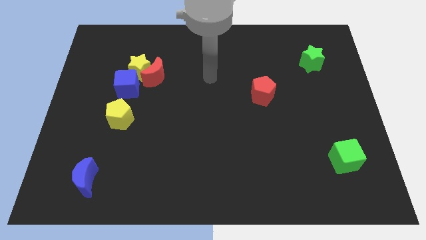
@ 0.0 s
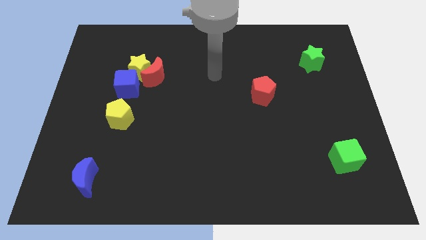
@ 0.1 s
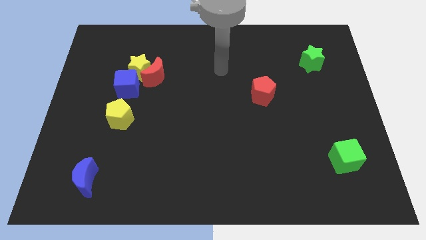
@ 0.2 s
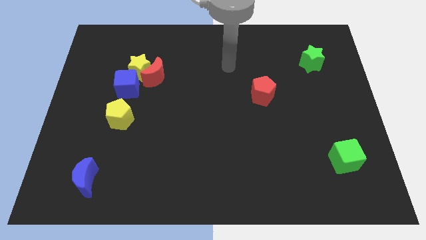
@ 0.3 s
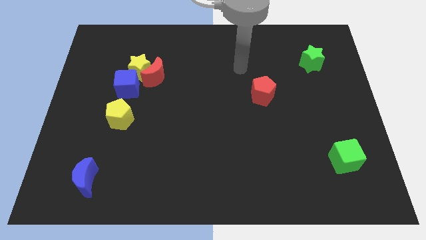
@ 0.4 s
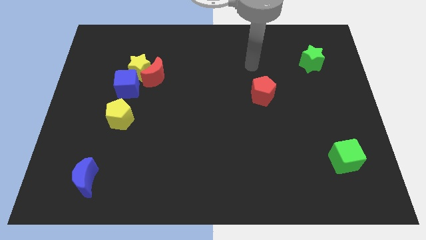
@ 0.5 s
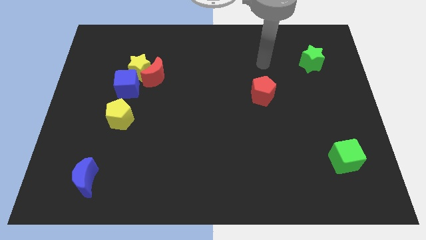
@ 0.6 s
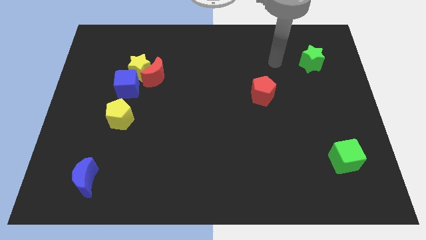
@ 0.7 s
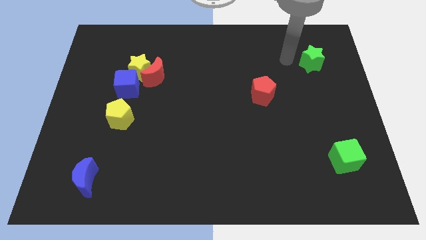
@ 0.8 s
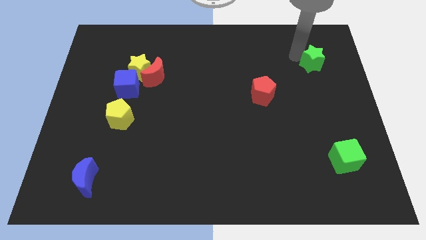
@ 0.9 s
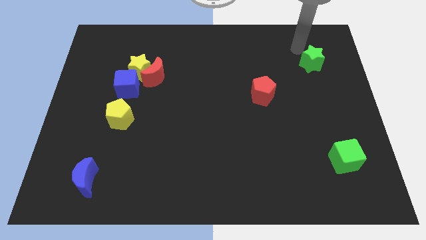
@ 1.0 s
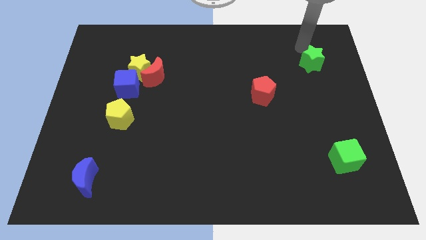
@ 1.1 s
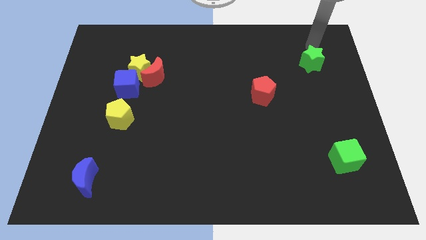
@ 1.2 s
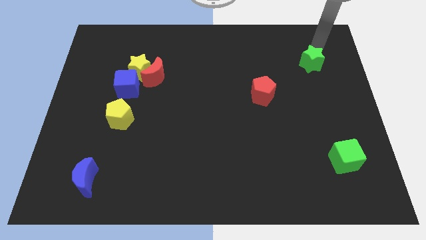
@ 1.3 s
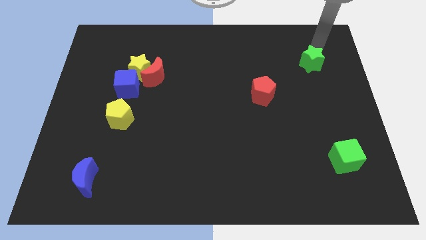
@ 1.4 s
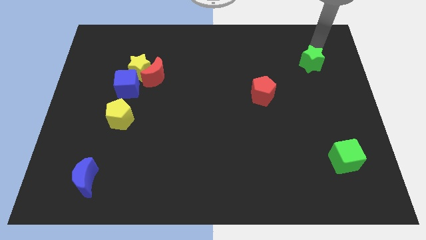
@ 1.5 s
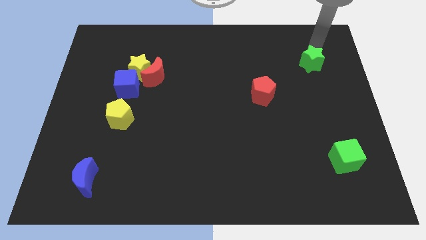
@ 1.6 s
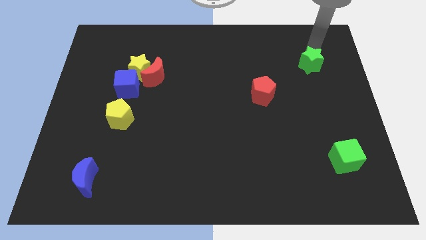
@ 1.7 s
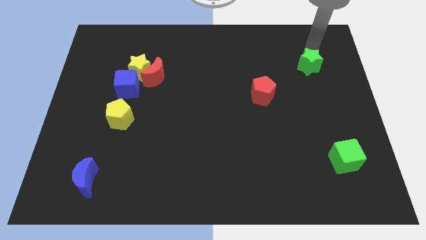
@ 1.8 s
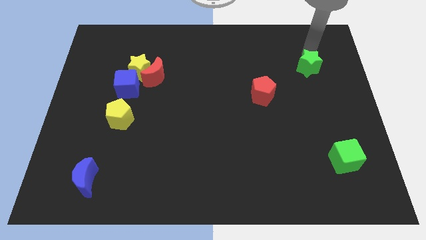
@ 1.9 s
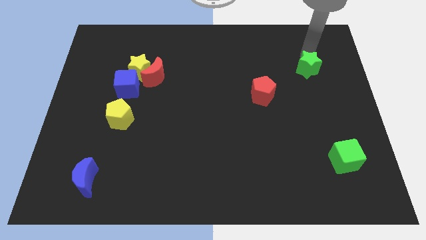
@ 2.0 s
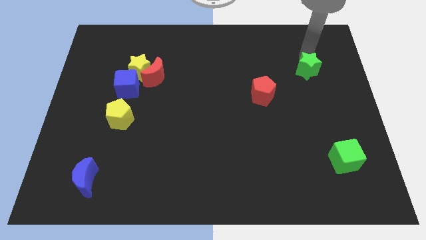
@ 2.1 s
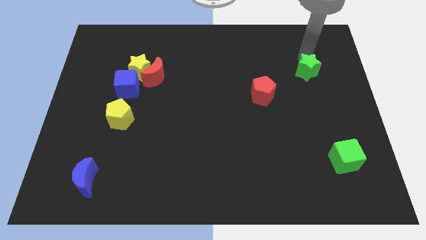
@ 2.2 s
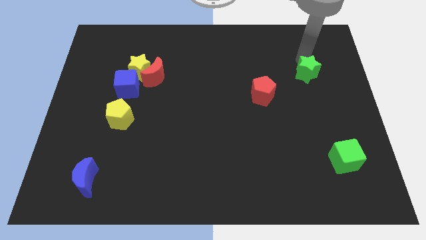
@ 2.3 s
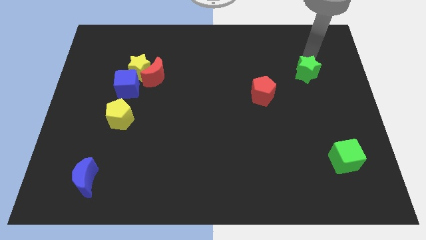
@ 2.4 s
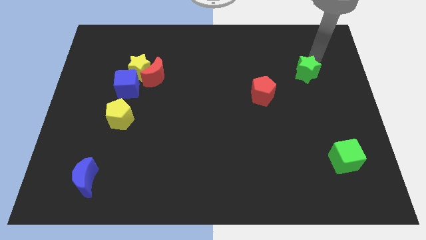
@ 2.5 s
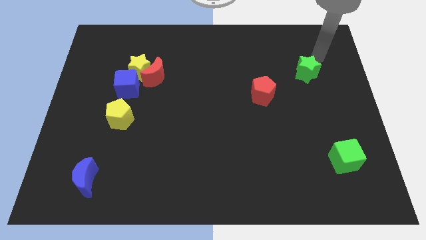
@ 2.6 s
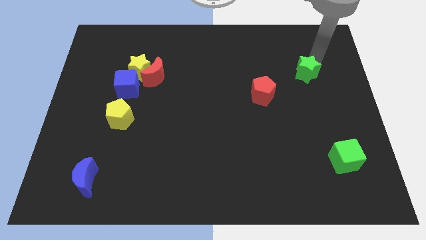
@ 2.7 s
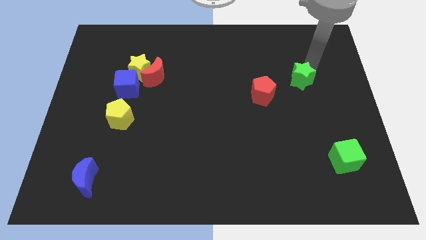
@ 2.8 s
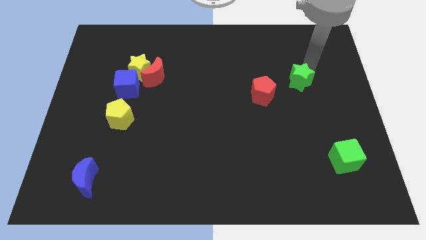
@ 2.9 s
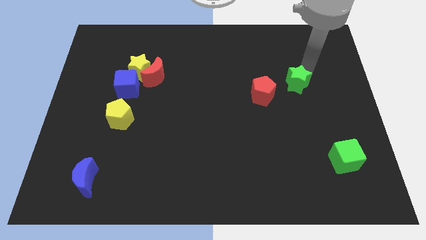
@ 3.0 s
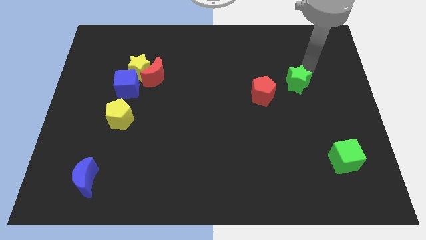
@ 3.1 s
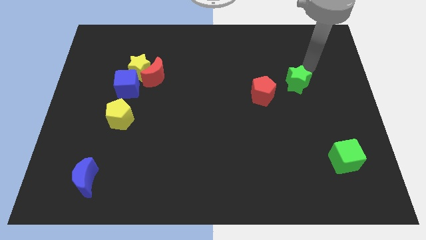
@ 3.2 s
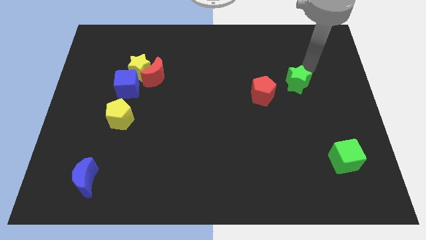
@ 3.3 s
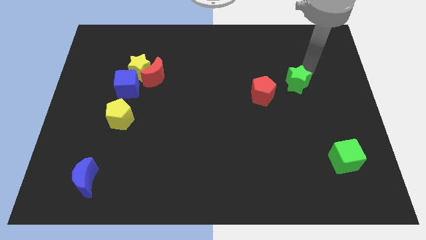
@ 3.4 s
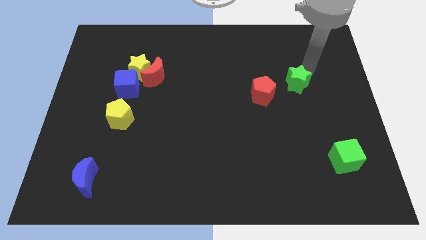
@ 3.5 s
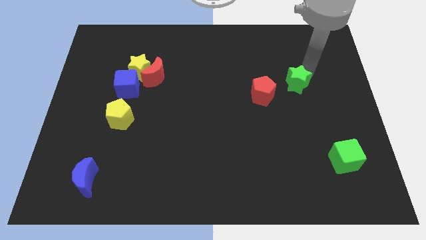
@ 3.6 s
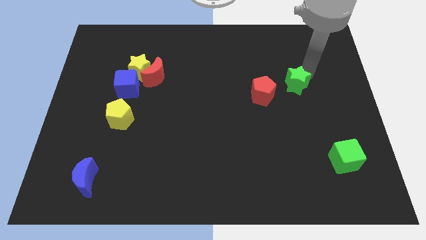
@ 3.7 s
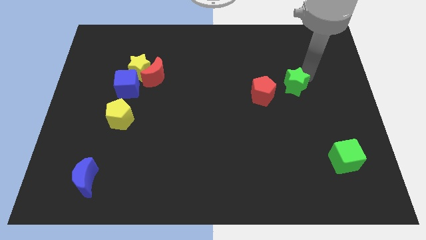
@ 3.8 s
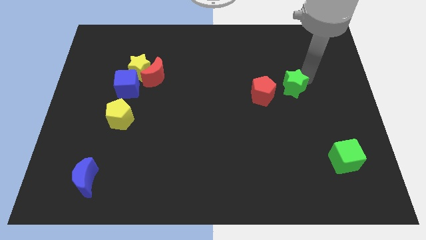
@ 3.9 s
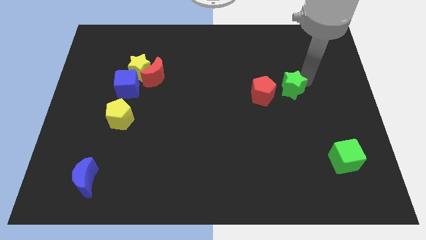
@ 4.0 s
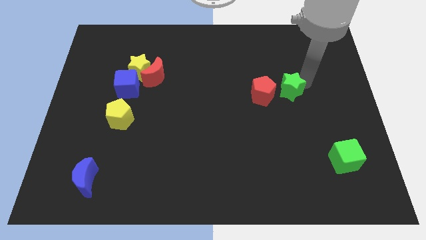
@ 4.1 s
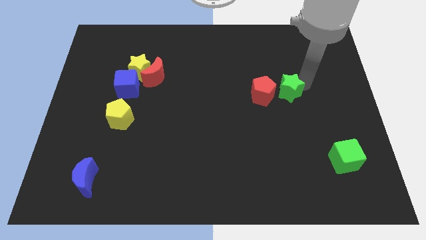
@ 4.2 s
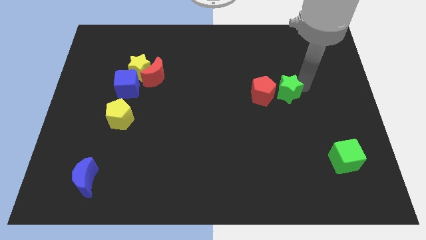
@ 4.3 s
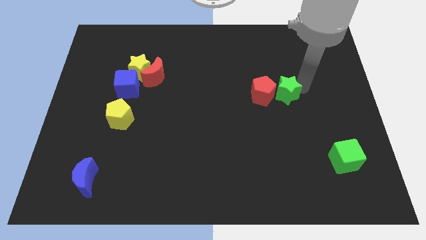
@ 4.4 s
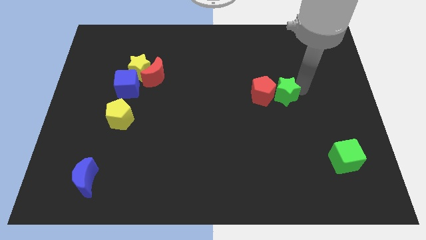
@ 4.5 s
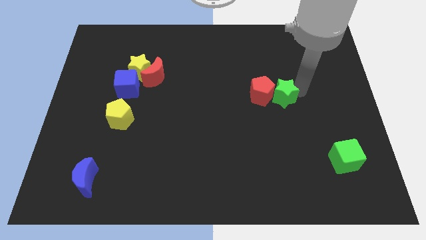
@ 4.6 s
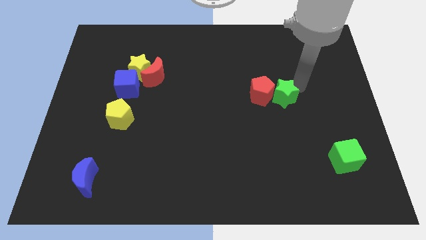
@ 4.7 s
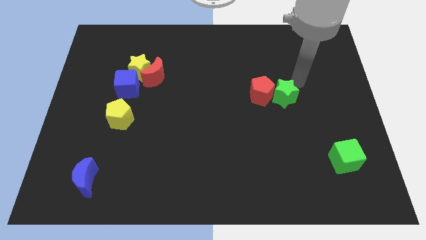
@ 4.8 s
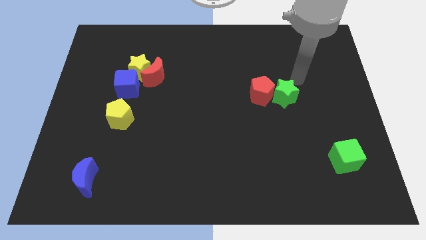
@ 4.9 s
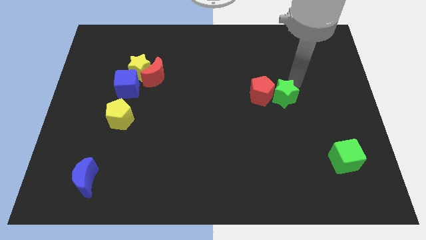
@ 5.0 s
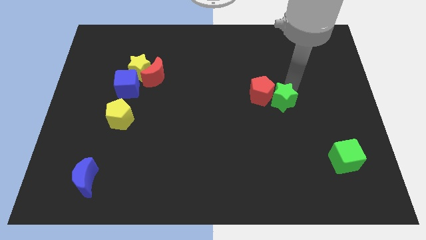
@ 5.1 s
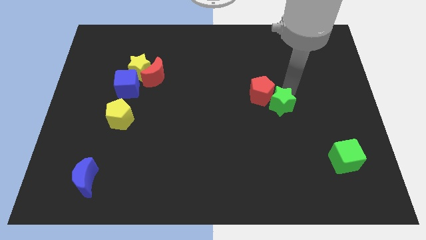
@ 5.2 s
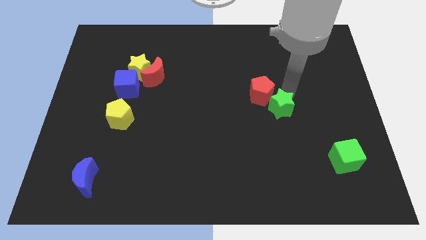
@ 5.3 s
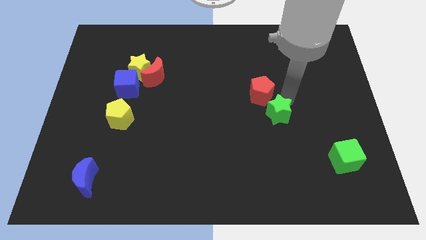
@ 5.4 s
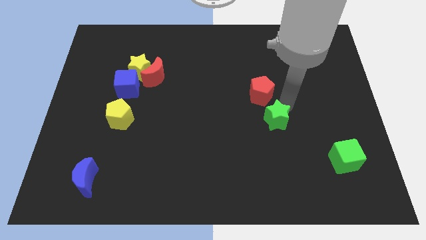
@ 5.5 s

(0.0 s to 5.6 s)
slide the green star down and left

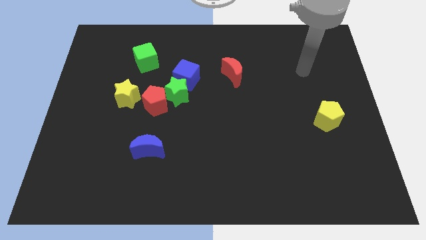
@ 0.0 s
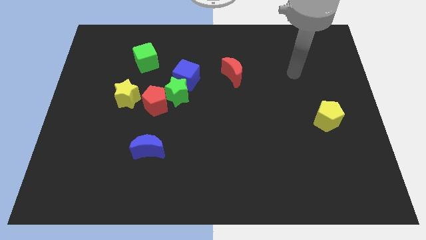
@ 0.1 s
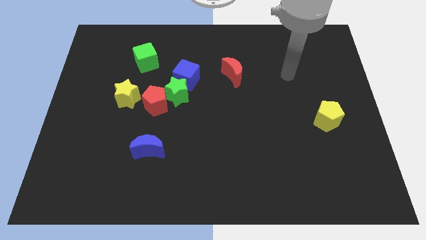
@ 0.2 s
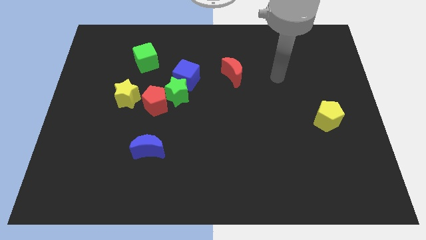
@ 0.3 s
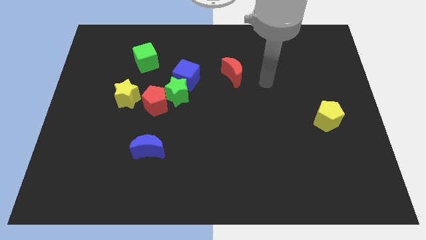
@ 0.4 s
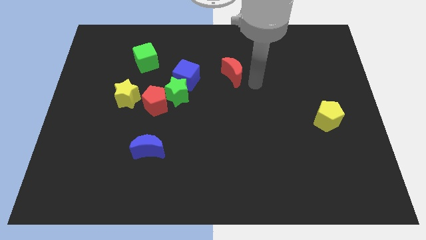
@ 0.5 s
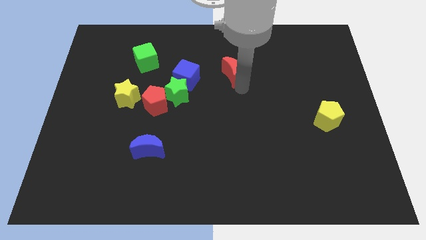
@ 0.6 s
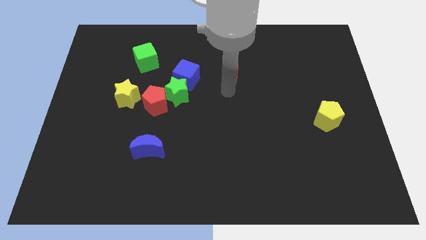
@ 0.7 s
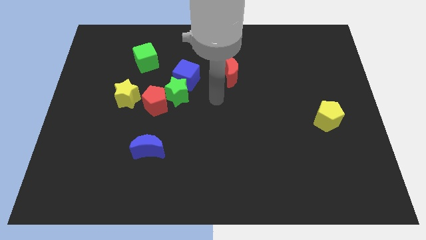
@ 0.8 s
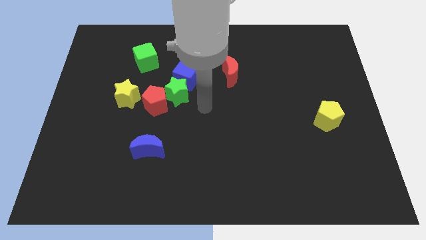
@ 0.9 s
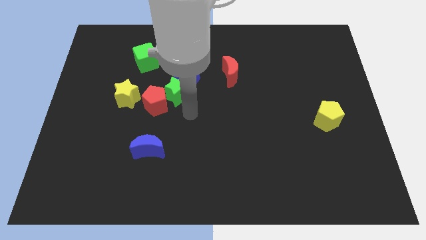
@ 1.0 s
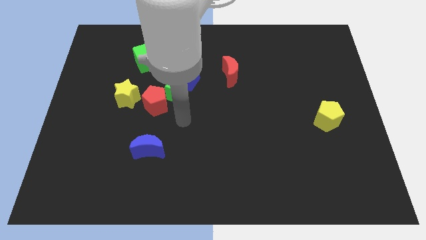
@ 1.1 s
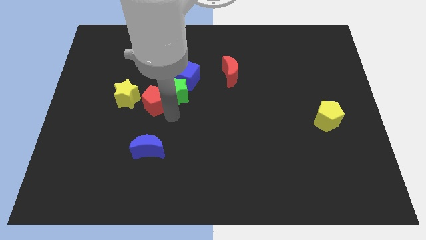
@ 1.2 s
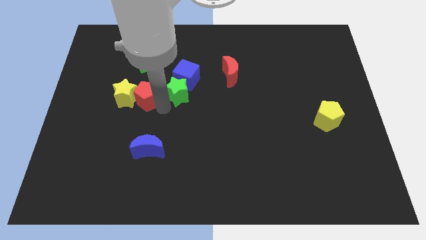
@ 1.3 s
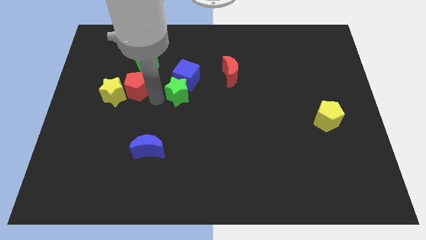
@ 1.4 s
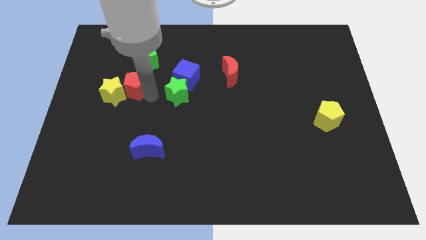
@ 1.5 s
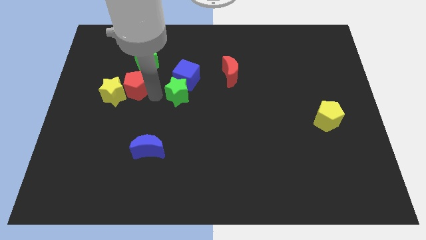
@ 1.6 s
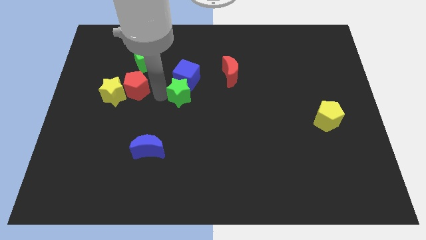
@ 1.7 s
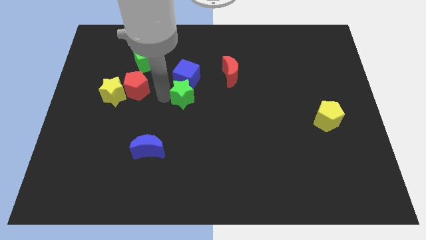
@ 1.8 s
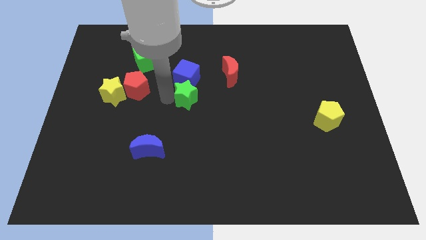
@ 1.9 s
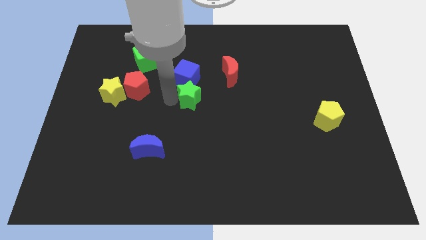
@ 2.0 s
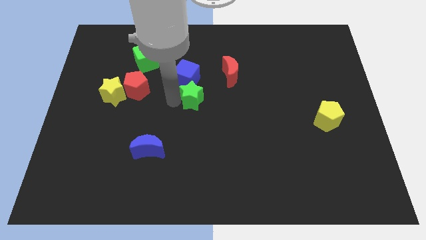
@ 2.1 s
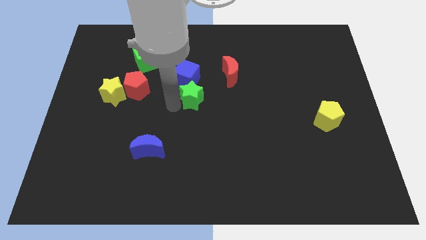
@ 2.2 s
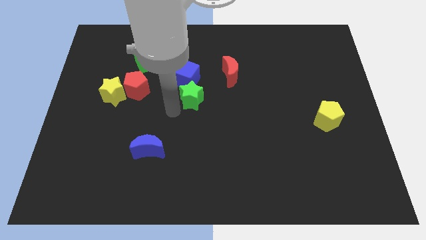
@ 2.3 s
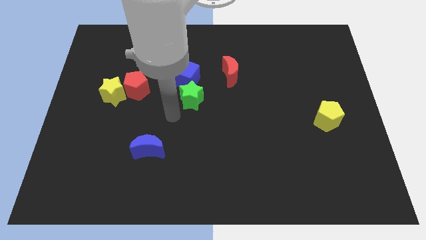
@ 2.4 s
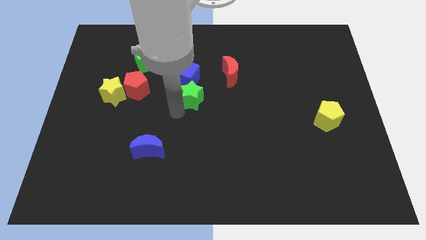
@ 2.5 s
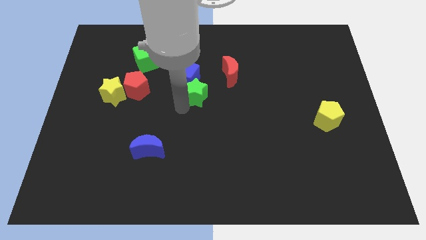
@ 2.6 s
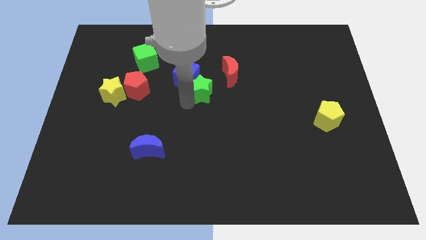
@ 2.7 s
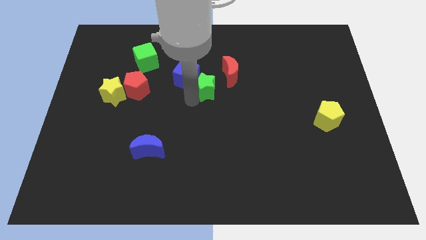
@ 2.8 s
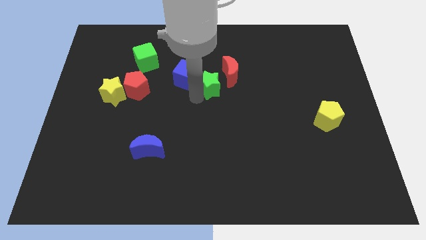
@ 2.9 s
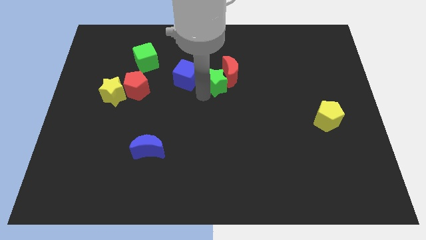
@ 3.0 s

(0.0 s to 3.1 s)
move the green star upwards and then to the right a little
